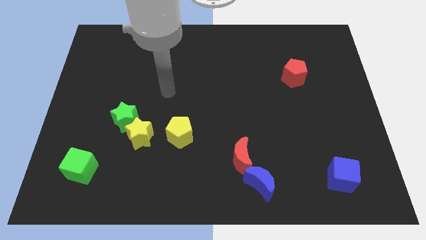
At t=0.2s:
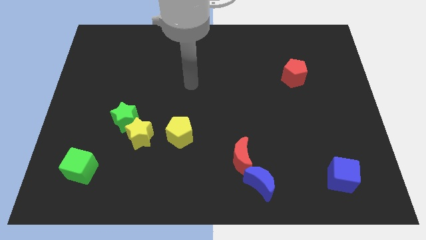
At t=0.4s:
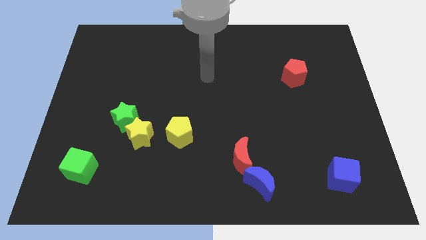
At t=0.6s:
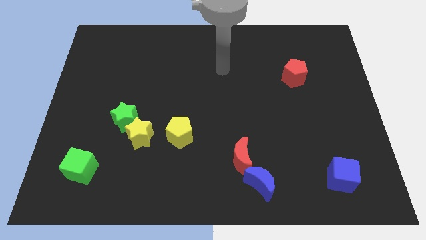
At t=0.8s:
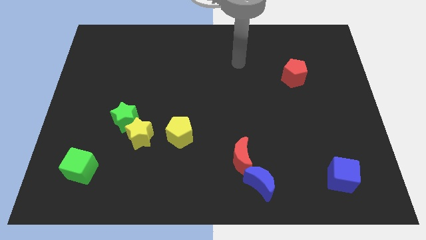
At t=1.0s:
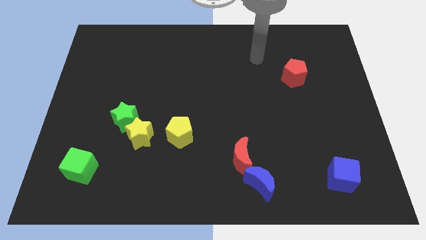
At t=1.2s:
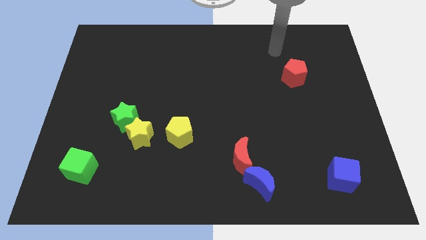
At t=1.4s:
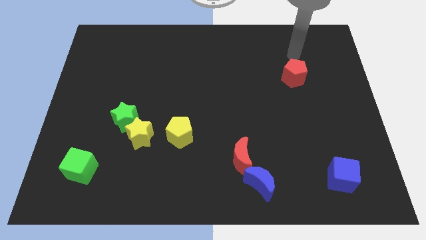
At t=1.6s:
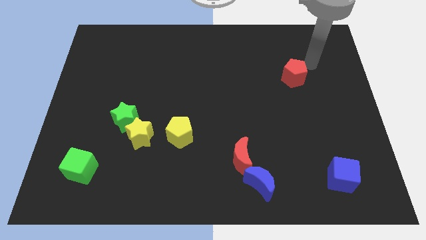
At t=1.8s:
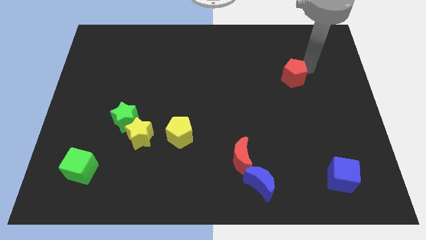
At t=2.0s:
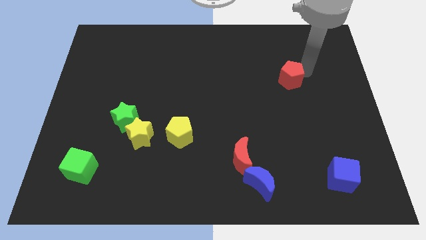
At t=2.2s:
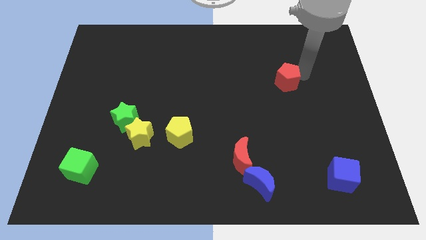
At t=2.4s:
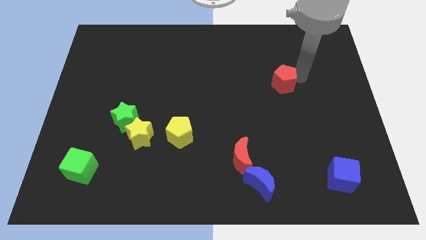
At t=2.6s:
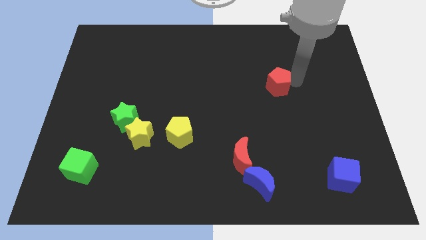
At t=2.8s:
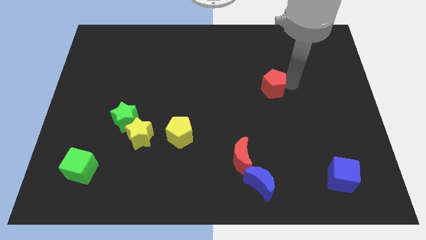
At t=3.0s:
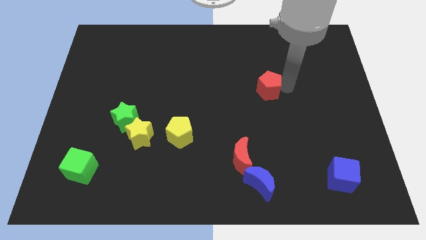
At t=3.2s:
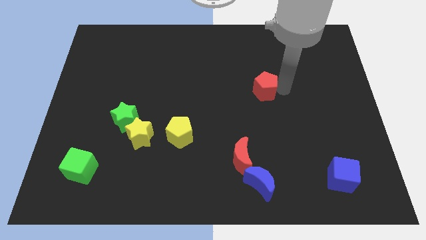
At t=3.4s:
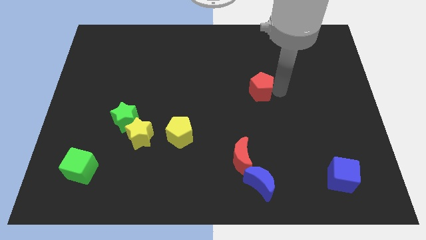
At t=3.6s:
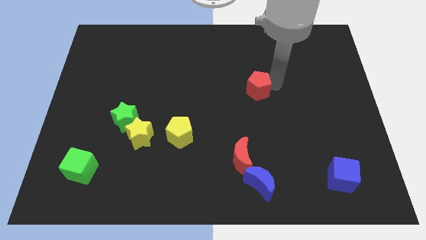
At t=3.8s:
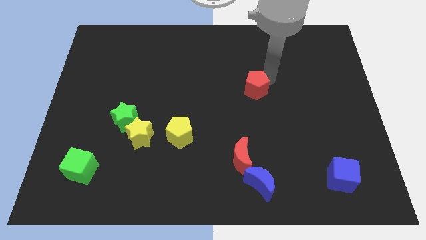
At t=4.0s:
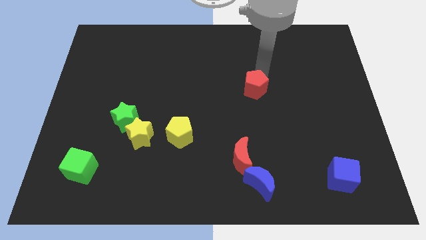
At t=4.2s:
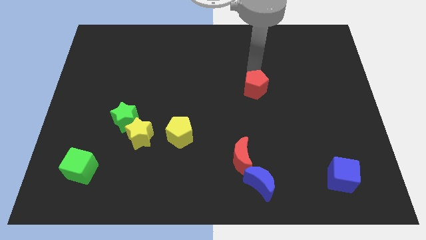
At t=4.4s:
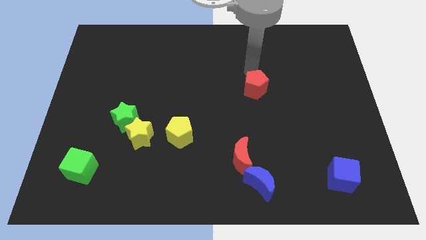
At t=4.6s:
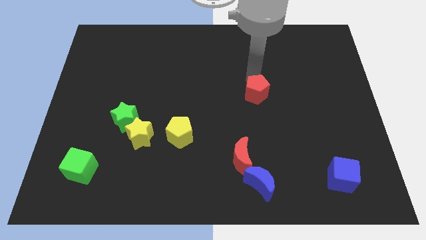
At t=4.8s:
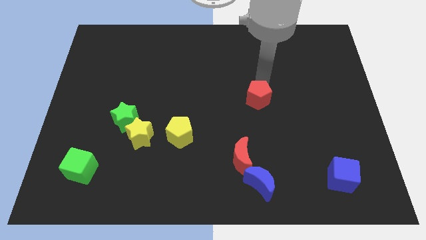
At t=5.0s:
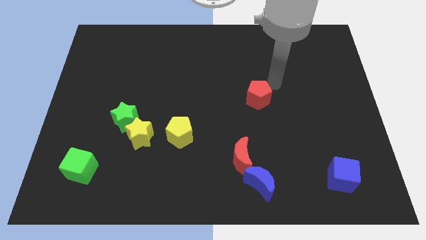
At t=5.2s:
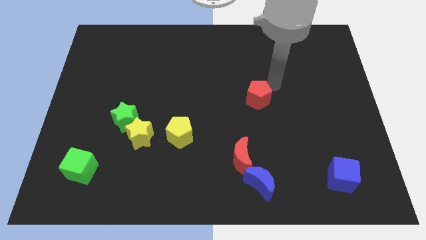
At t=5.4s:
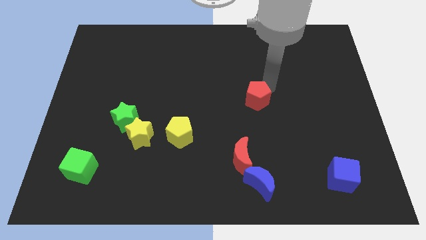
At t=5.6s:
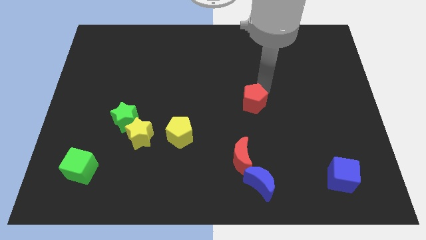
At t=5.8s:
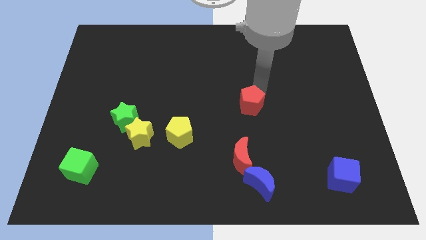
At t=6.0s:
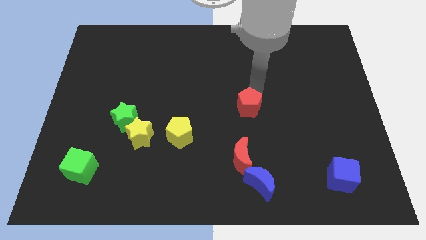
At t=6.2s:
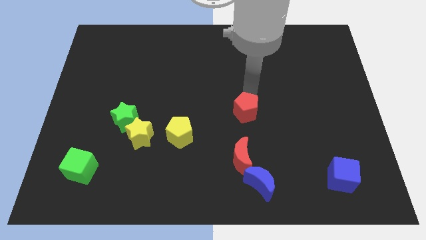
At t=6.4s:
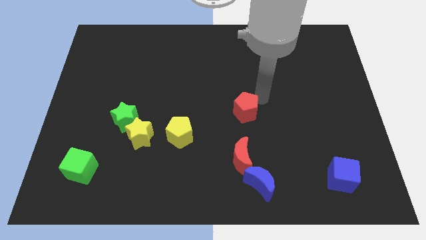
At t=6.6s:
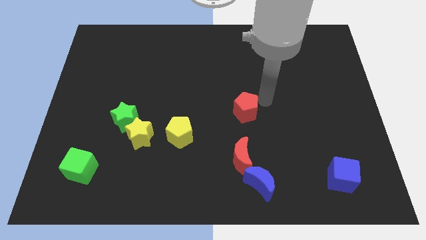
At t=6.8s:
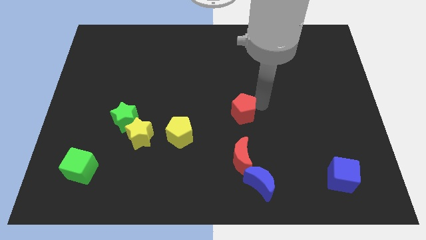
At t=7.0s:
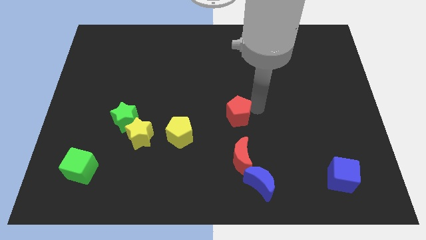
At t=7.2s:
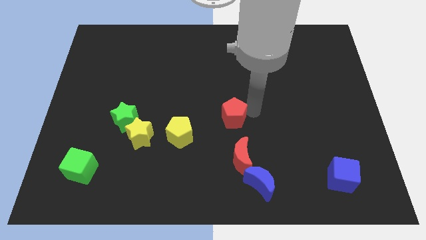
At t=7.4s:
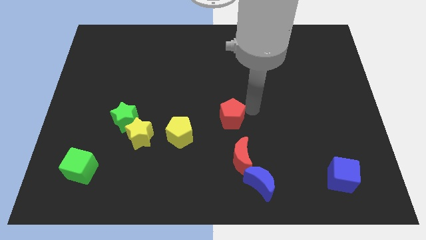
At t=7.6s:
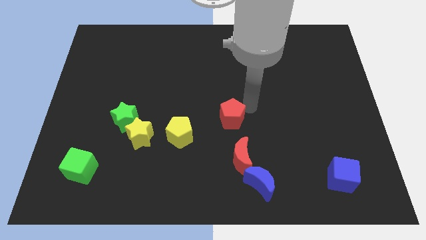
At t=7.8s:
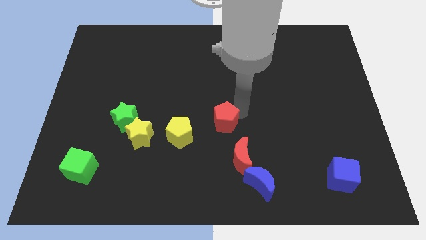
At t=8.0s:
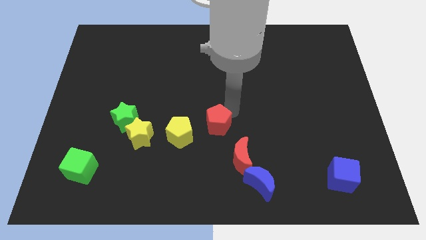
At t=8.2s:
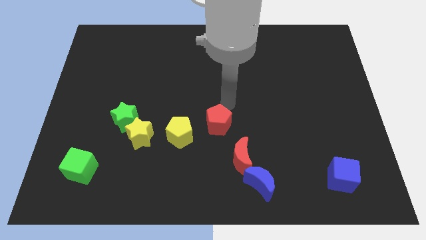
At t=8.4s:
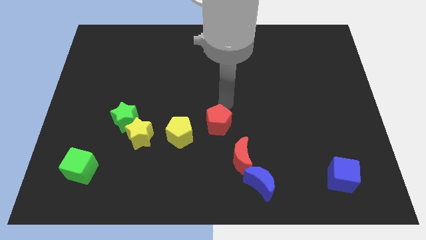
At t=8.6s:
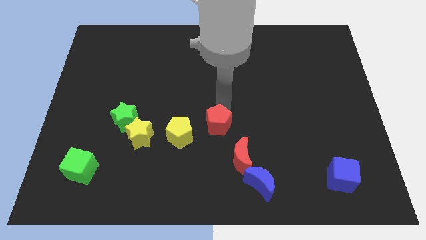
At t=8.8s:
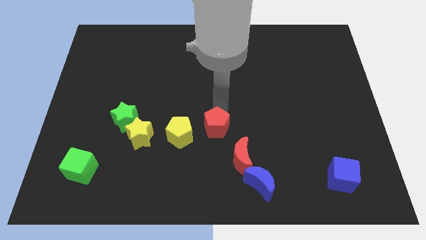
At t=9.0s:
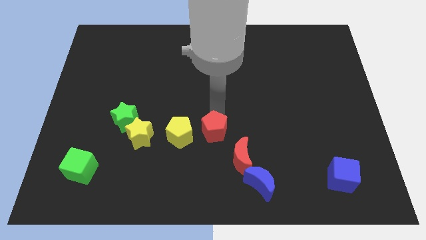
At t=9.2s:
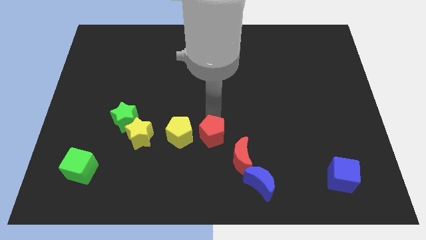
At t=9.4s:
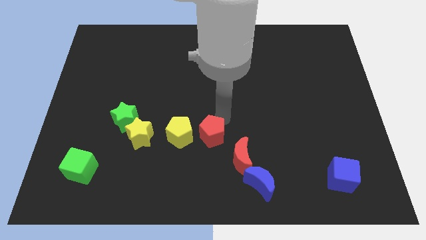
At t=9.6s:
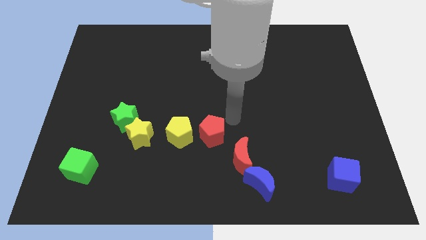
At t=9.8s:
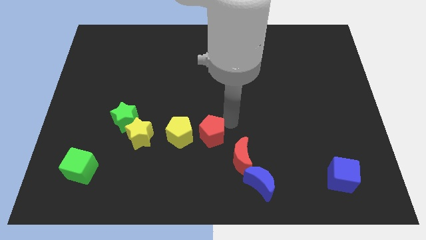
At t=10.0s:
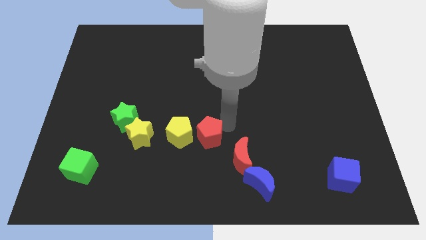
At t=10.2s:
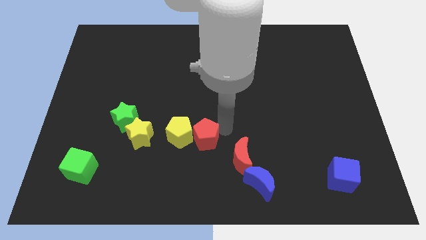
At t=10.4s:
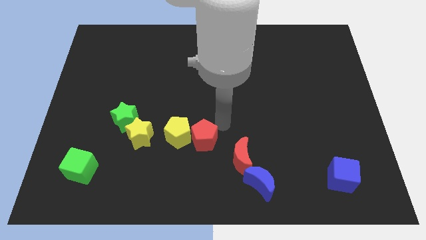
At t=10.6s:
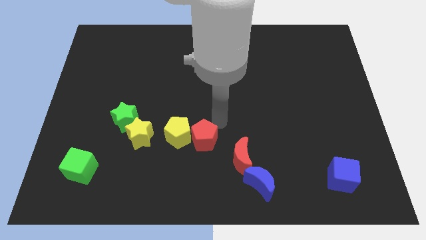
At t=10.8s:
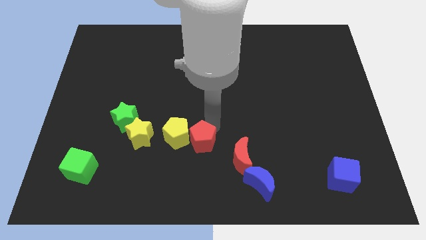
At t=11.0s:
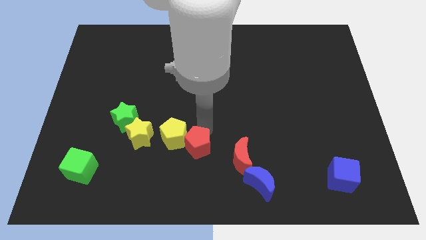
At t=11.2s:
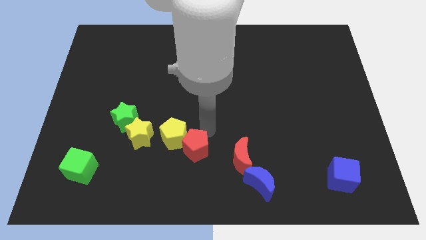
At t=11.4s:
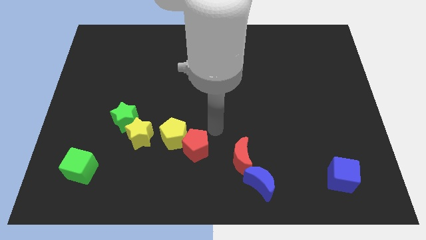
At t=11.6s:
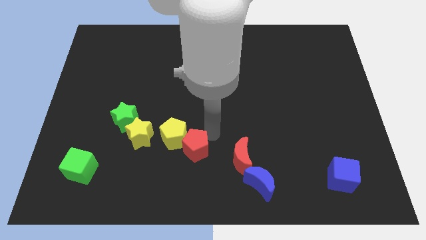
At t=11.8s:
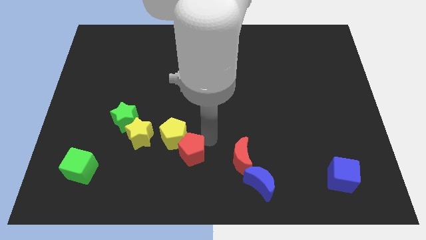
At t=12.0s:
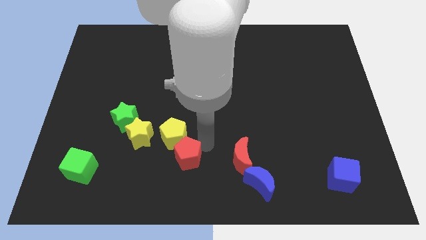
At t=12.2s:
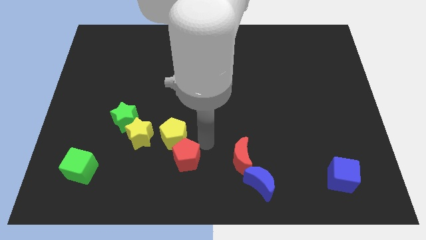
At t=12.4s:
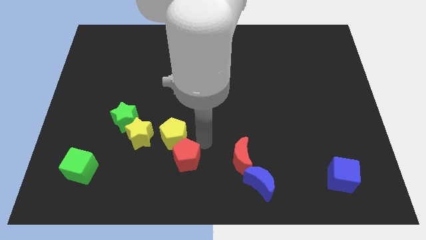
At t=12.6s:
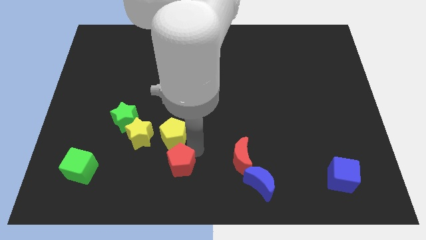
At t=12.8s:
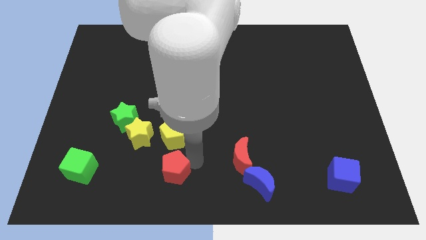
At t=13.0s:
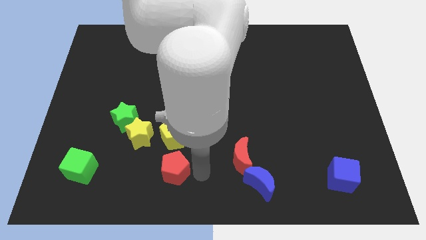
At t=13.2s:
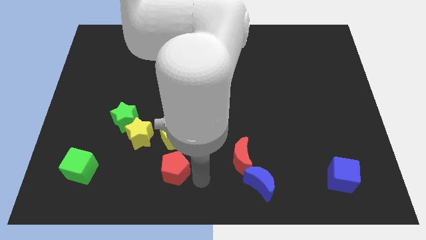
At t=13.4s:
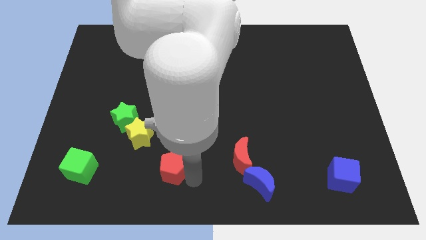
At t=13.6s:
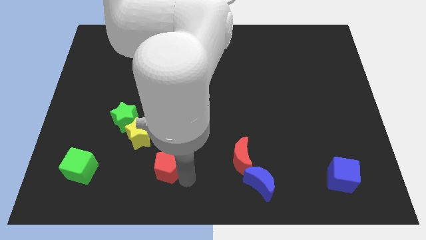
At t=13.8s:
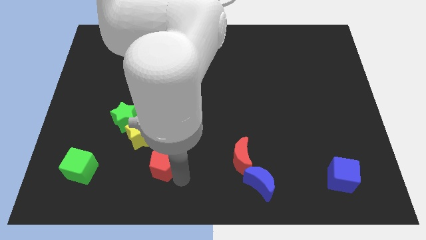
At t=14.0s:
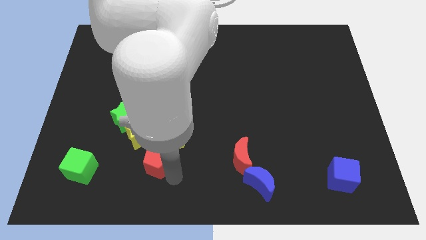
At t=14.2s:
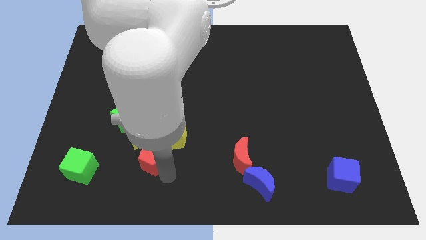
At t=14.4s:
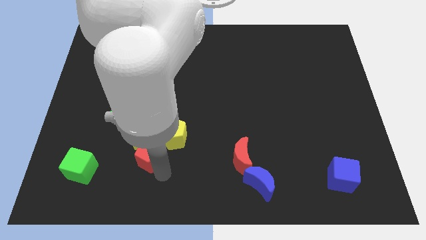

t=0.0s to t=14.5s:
push the red pentagon to the left side of the yellow pentagon
